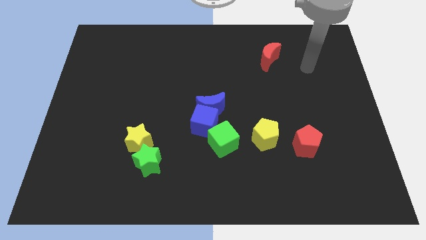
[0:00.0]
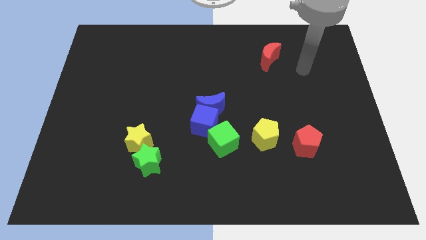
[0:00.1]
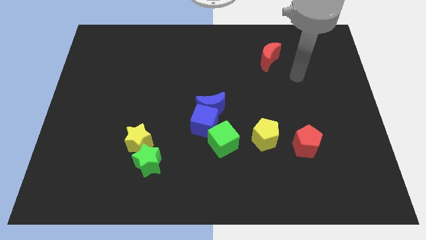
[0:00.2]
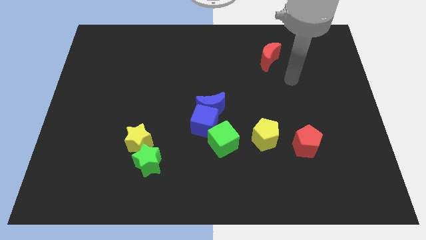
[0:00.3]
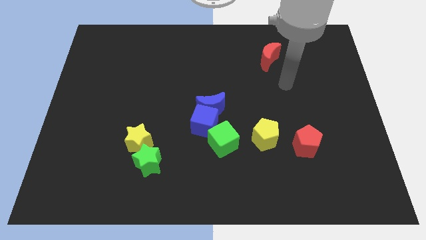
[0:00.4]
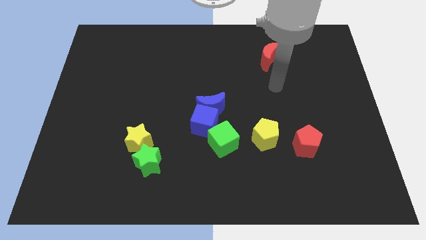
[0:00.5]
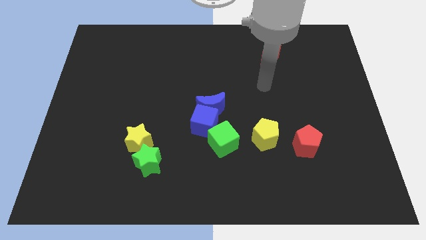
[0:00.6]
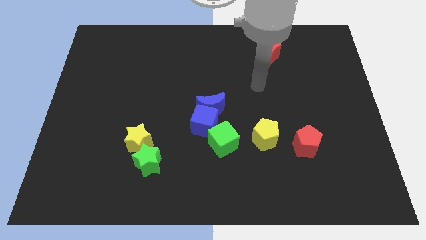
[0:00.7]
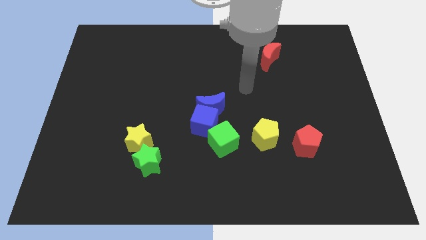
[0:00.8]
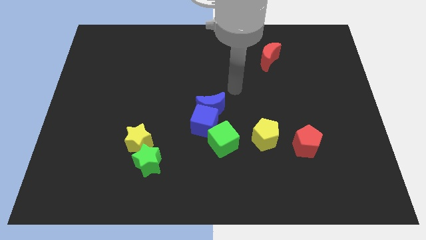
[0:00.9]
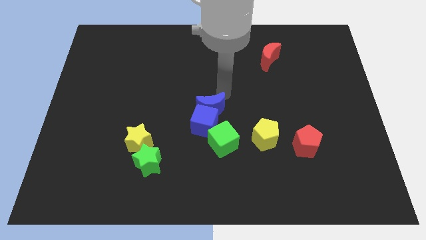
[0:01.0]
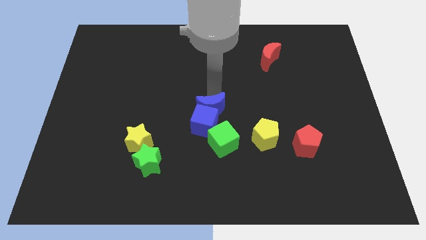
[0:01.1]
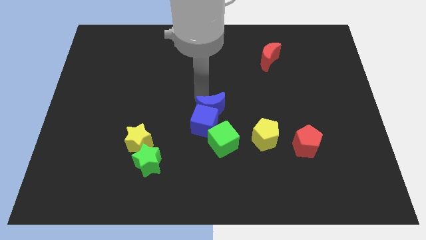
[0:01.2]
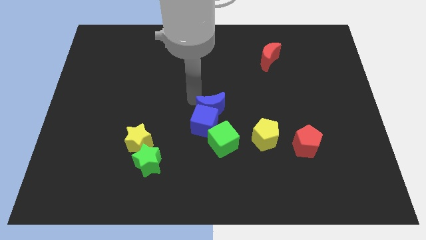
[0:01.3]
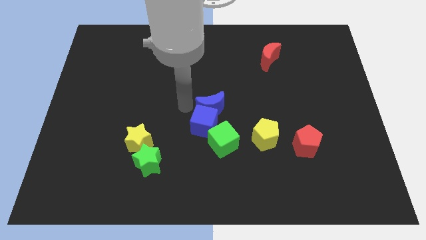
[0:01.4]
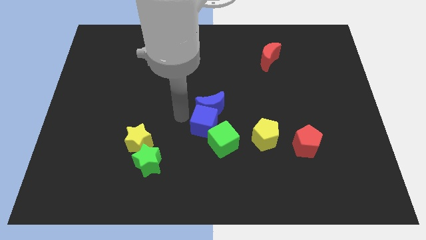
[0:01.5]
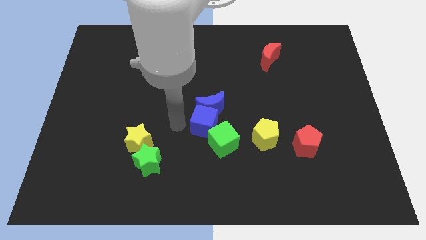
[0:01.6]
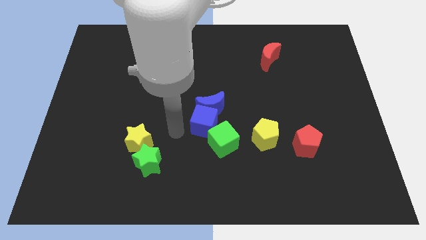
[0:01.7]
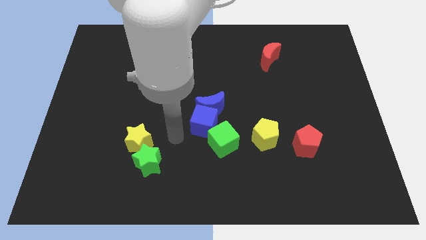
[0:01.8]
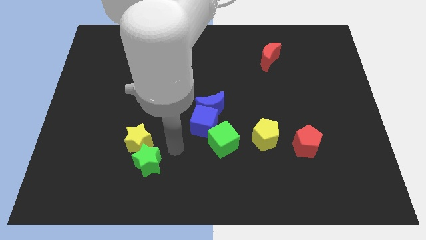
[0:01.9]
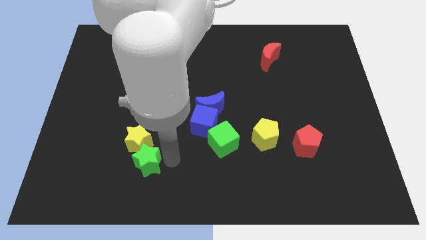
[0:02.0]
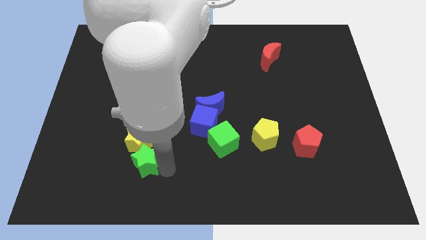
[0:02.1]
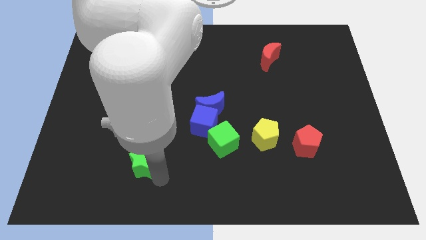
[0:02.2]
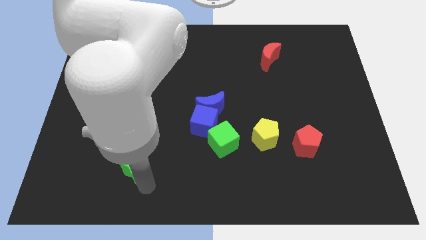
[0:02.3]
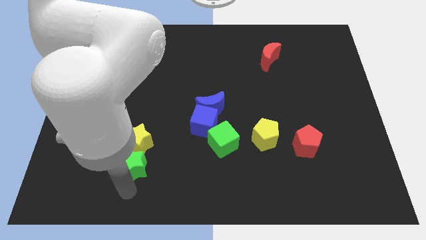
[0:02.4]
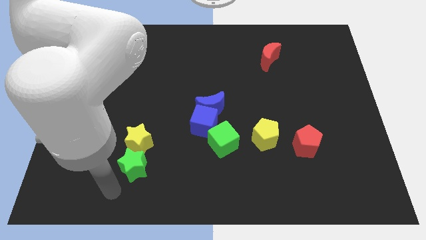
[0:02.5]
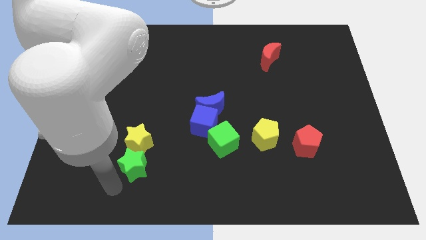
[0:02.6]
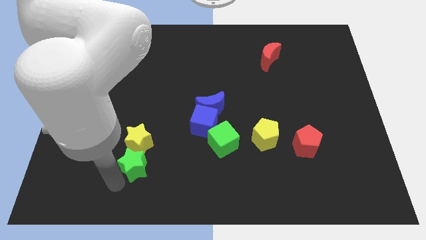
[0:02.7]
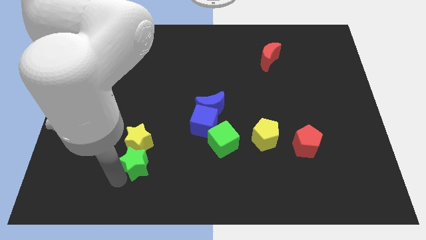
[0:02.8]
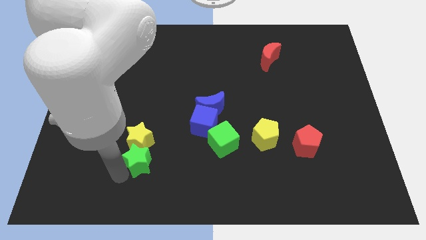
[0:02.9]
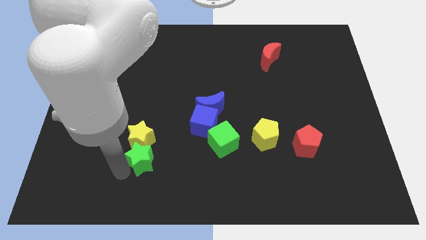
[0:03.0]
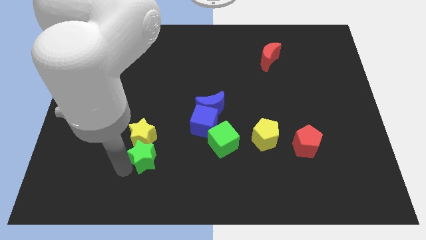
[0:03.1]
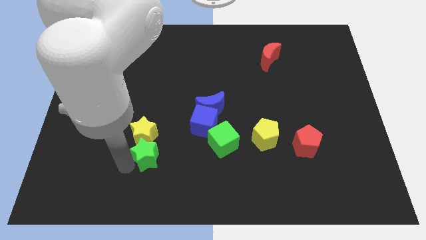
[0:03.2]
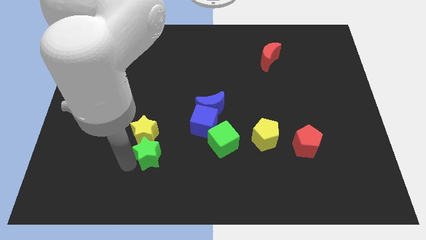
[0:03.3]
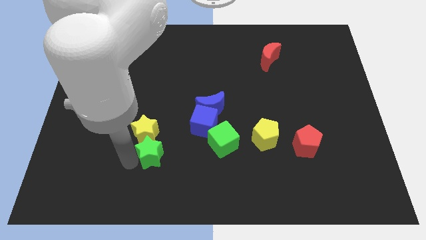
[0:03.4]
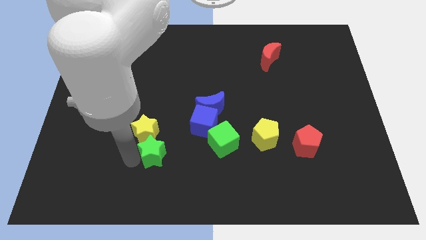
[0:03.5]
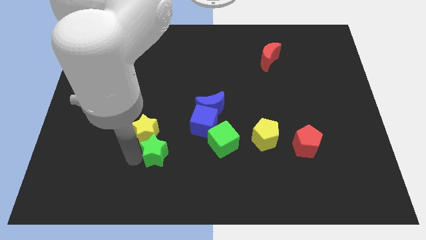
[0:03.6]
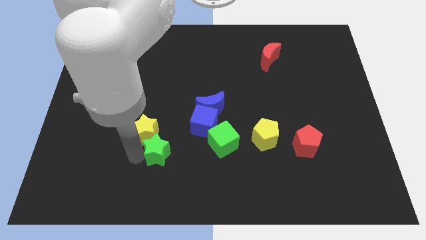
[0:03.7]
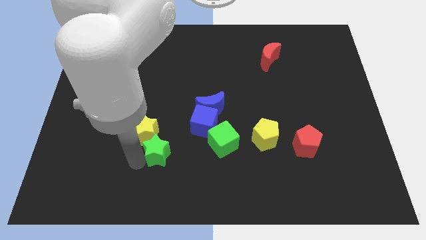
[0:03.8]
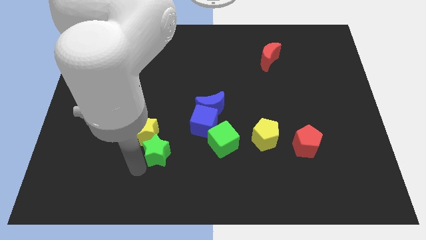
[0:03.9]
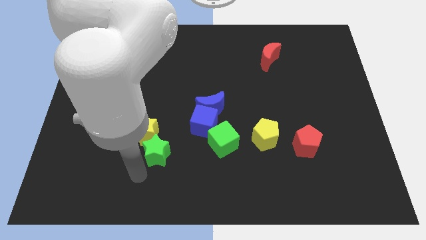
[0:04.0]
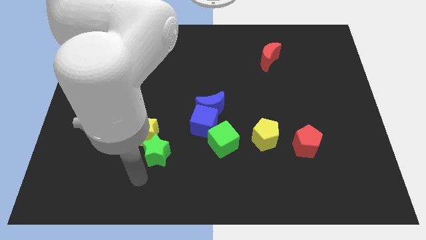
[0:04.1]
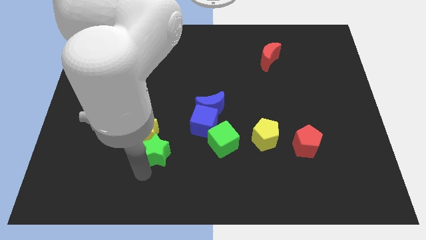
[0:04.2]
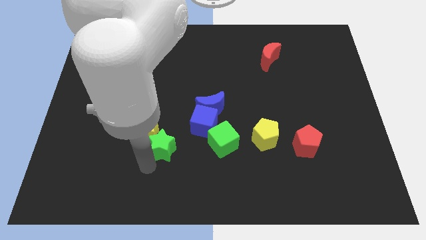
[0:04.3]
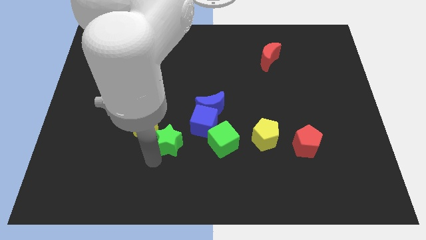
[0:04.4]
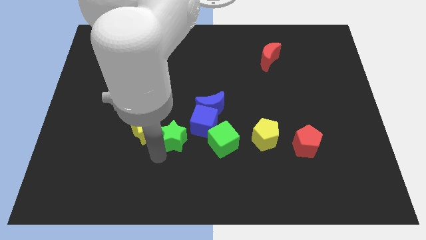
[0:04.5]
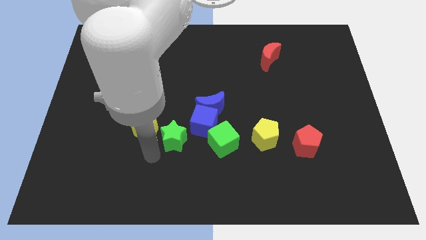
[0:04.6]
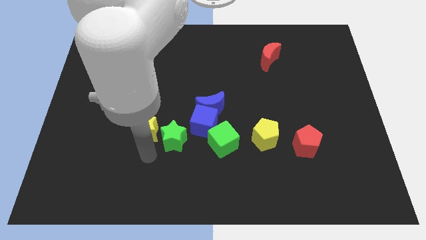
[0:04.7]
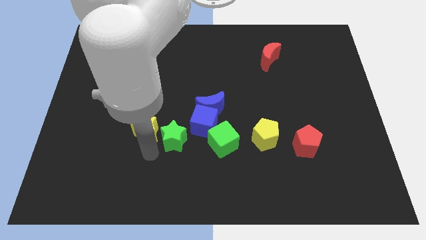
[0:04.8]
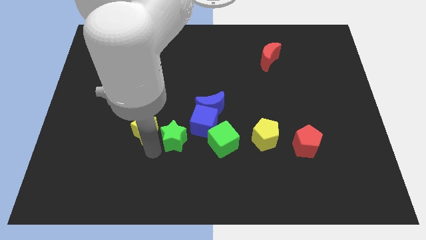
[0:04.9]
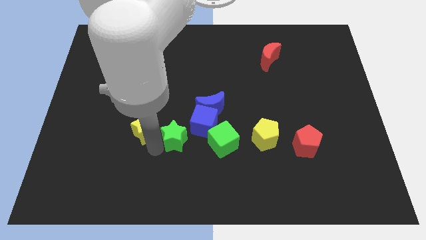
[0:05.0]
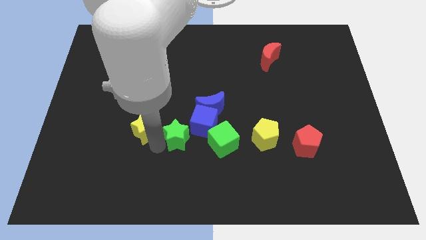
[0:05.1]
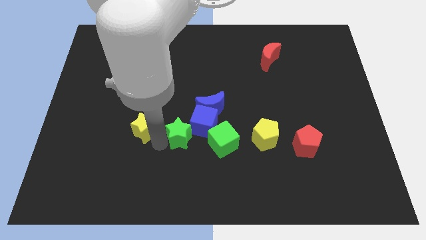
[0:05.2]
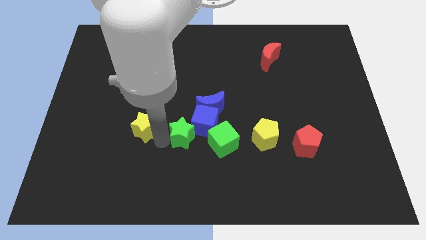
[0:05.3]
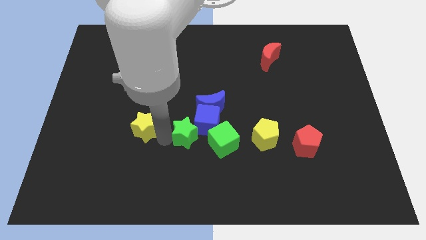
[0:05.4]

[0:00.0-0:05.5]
push the green star diagonally up and to the left of the green cube

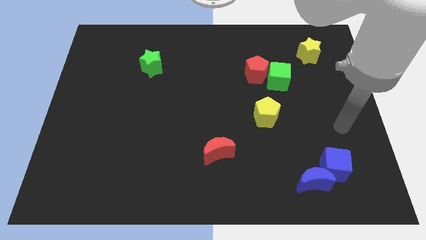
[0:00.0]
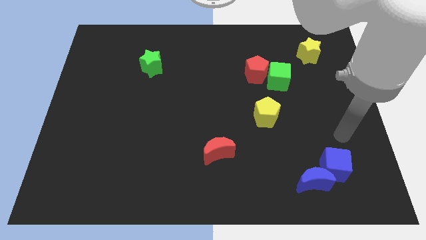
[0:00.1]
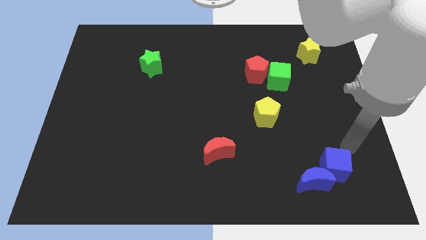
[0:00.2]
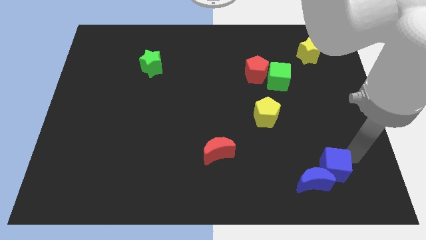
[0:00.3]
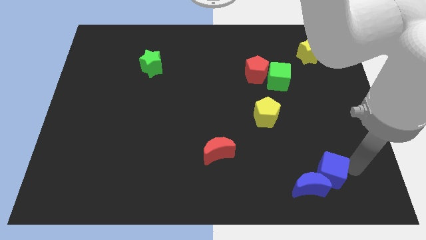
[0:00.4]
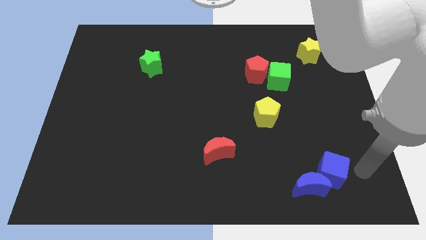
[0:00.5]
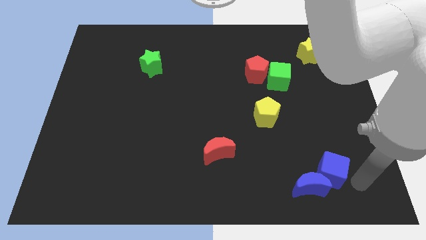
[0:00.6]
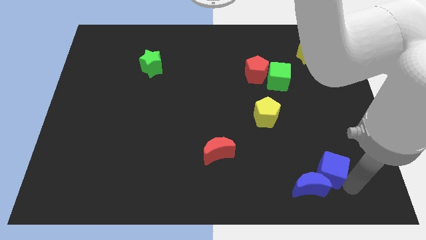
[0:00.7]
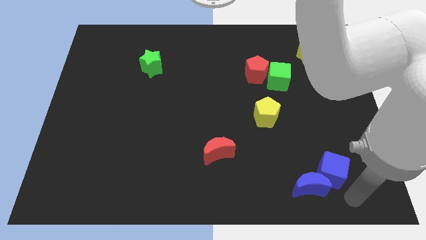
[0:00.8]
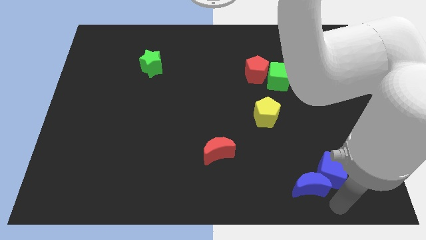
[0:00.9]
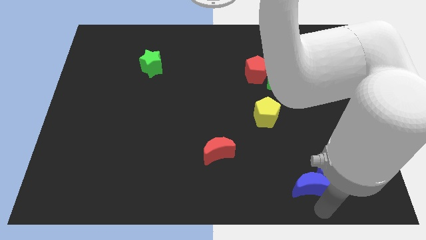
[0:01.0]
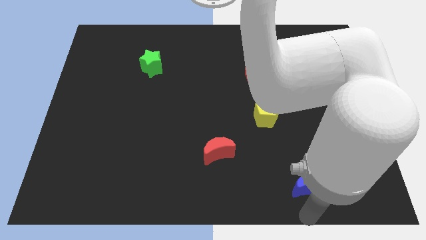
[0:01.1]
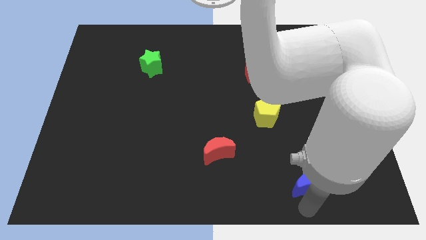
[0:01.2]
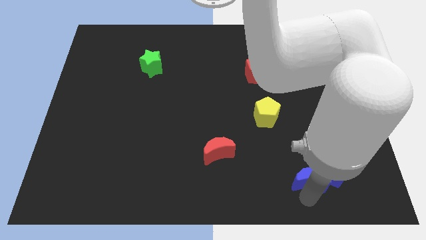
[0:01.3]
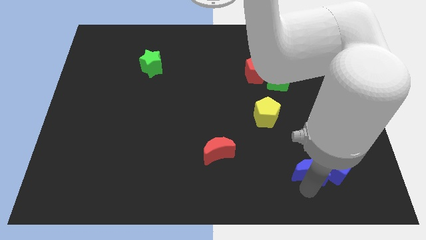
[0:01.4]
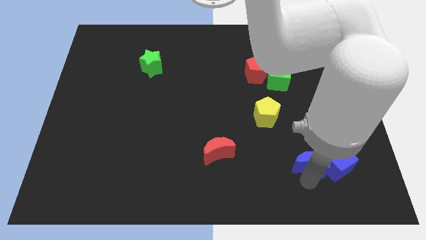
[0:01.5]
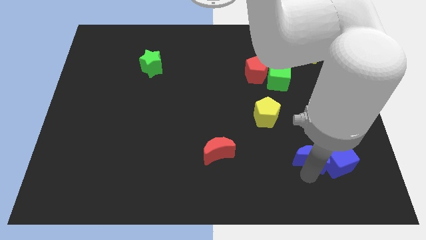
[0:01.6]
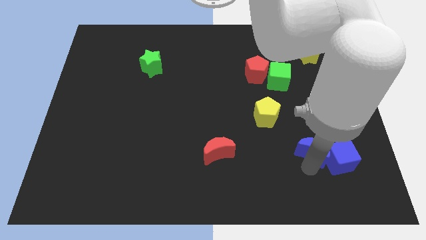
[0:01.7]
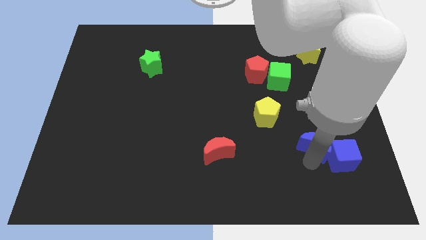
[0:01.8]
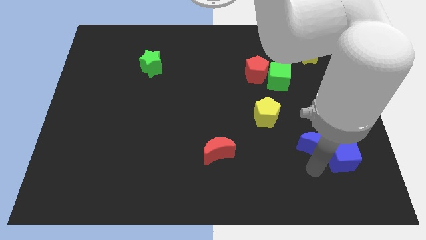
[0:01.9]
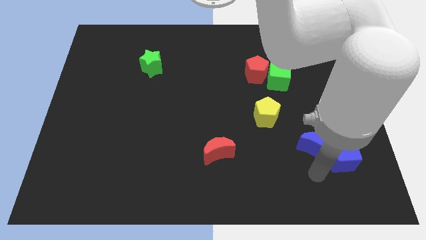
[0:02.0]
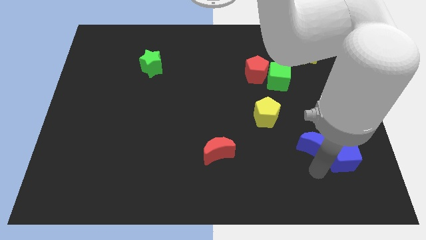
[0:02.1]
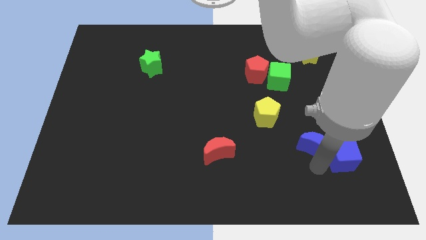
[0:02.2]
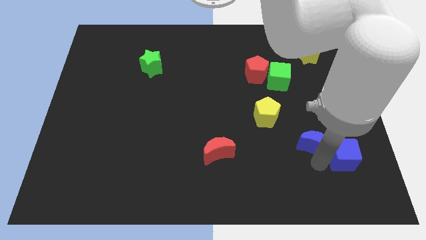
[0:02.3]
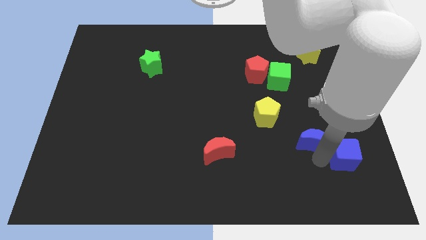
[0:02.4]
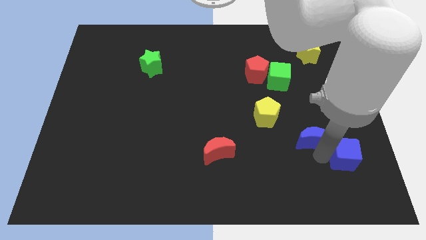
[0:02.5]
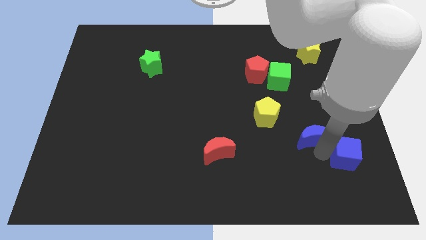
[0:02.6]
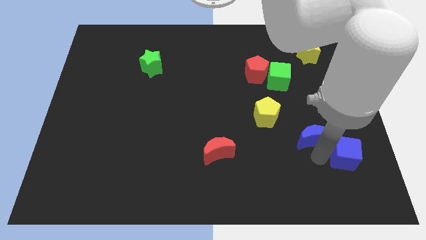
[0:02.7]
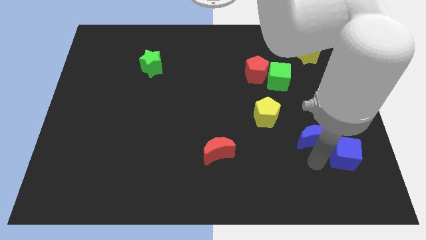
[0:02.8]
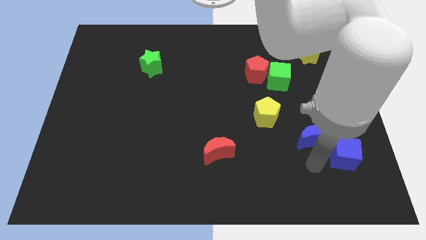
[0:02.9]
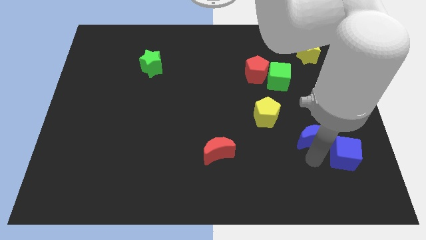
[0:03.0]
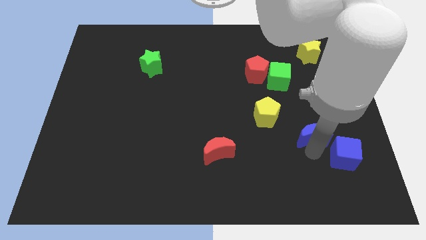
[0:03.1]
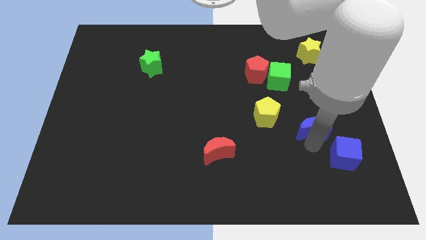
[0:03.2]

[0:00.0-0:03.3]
push the blue moon just right of the yellow pentagon
